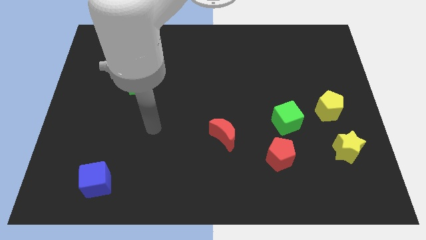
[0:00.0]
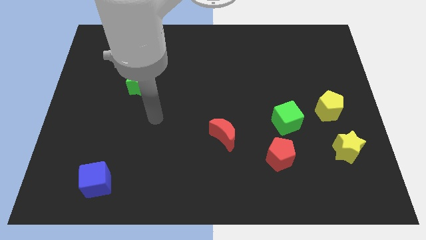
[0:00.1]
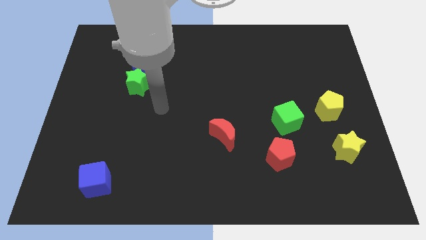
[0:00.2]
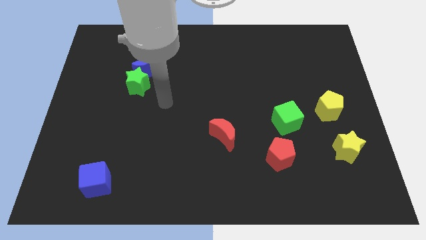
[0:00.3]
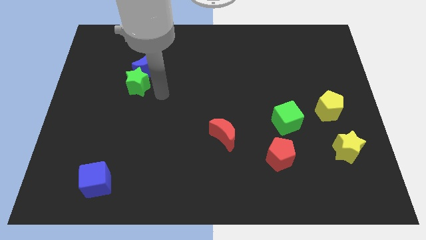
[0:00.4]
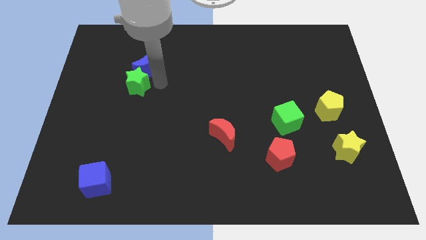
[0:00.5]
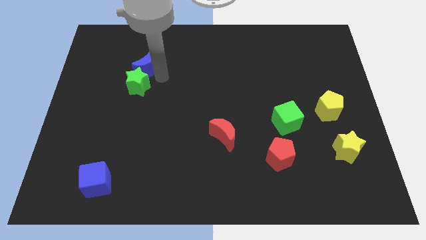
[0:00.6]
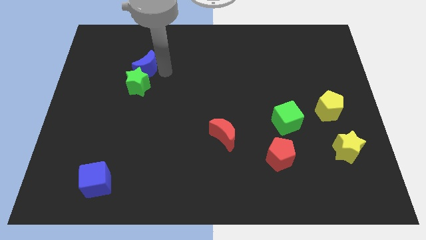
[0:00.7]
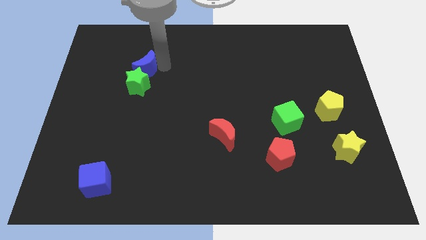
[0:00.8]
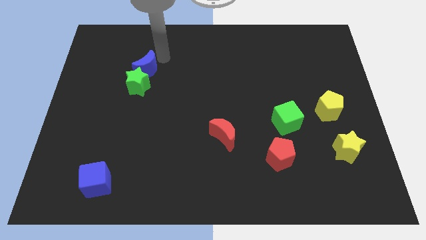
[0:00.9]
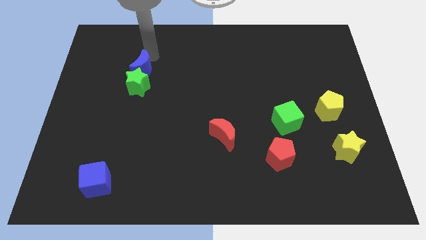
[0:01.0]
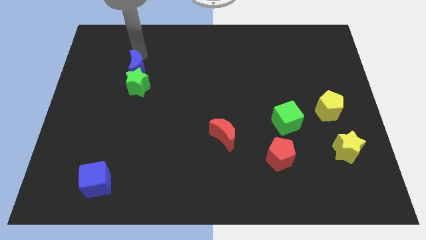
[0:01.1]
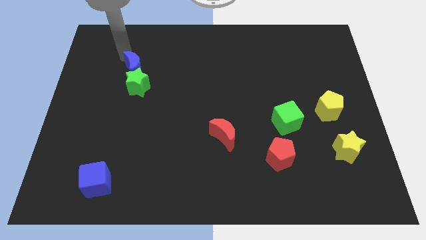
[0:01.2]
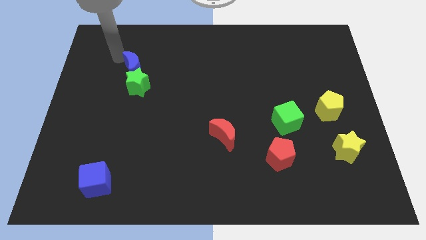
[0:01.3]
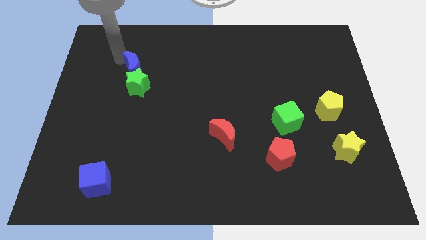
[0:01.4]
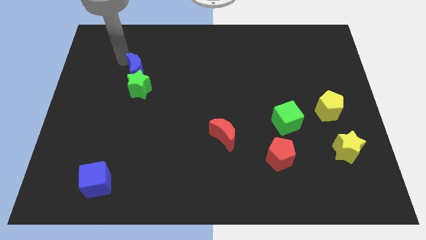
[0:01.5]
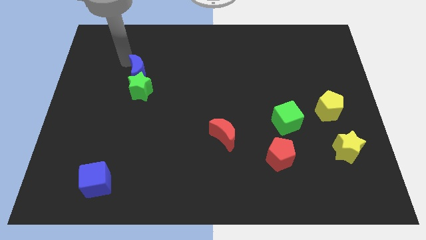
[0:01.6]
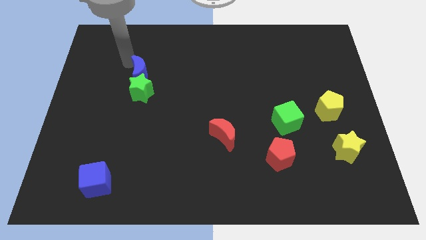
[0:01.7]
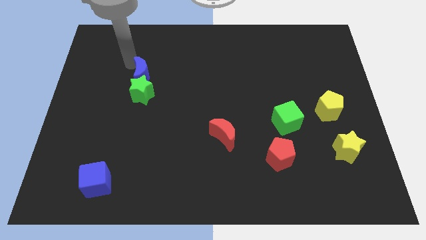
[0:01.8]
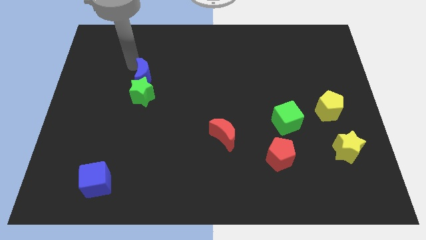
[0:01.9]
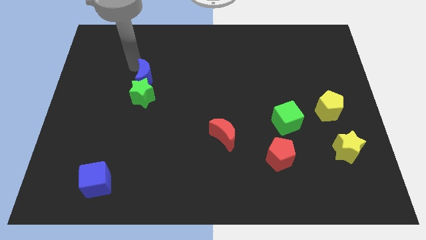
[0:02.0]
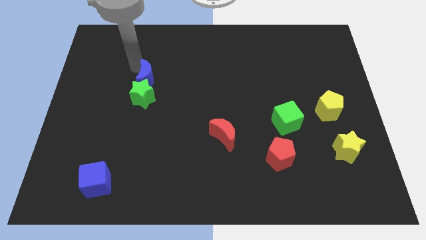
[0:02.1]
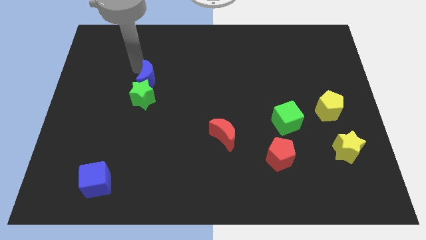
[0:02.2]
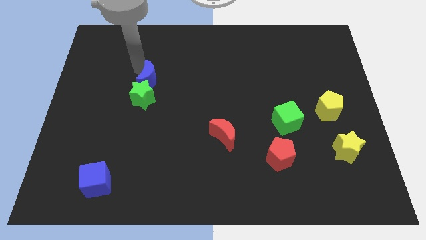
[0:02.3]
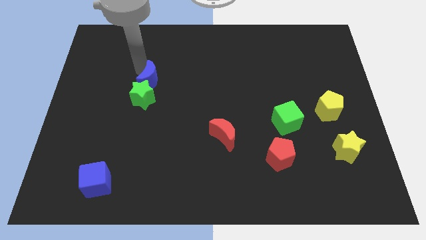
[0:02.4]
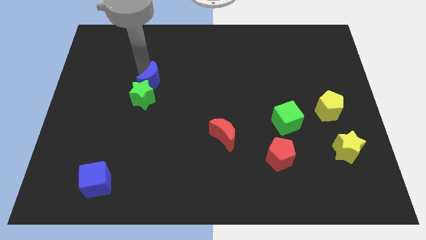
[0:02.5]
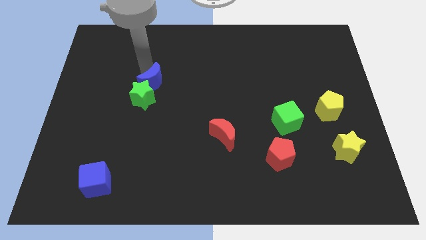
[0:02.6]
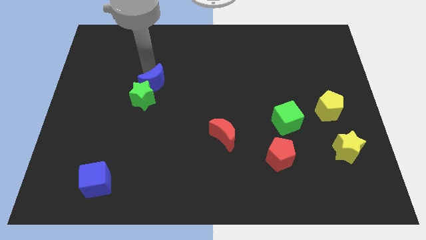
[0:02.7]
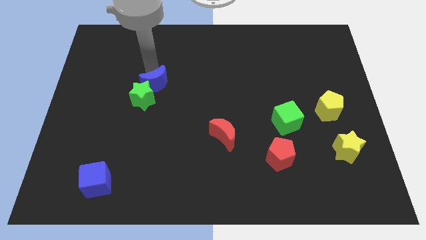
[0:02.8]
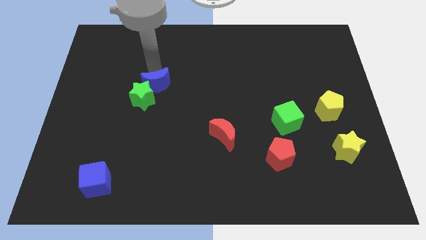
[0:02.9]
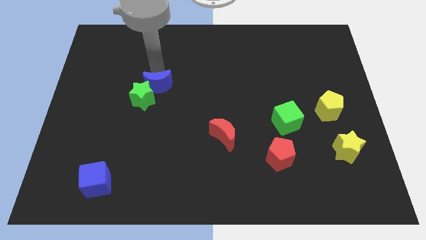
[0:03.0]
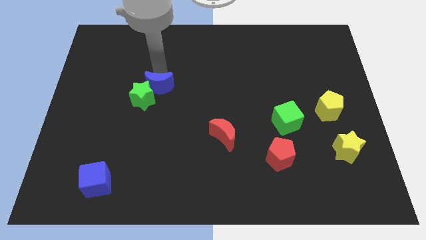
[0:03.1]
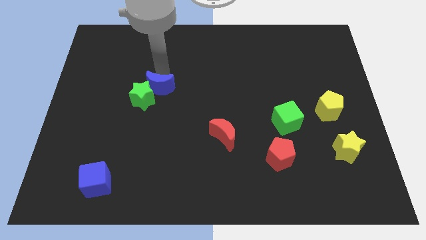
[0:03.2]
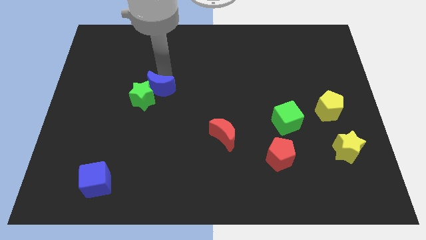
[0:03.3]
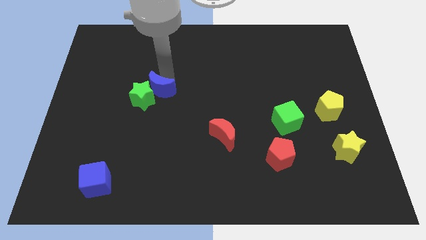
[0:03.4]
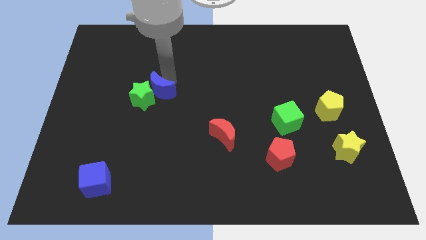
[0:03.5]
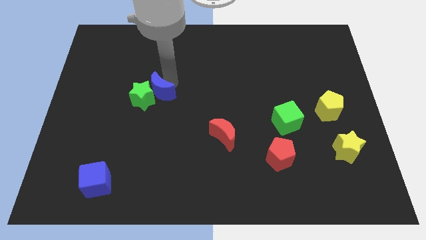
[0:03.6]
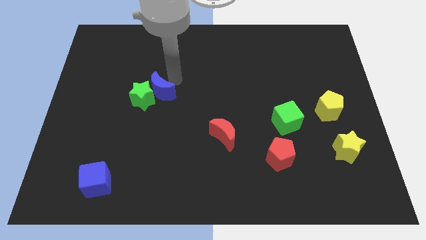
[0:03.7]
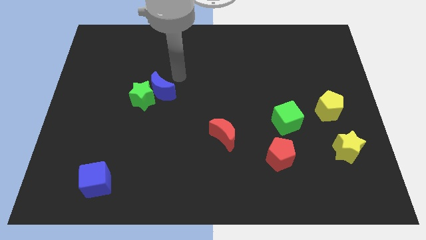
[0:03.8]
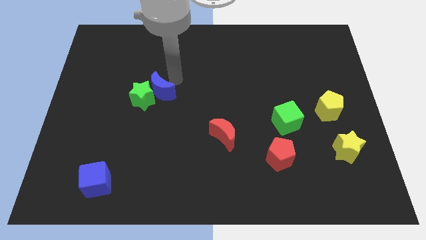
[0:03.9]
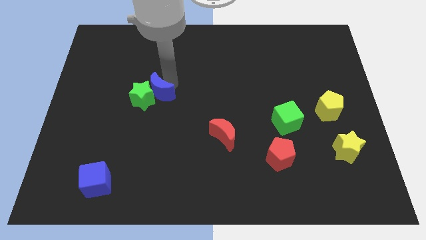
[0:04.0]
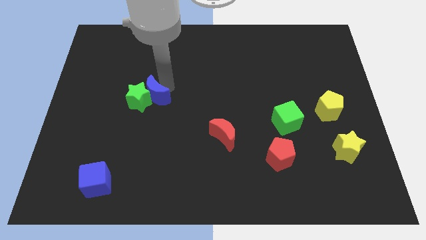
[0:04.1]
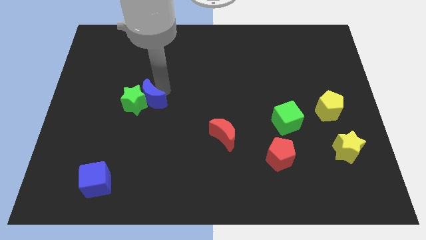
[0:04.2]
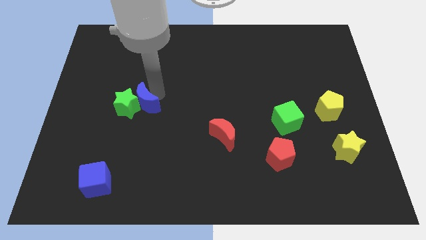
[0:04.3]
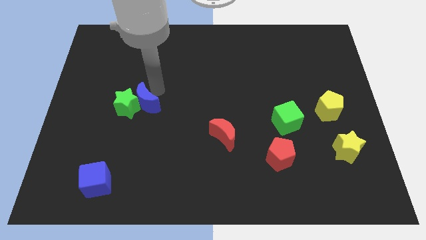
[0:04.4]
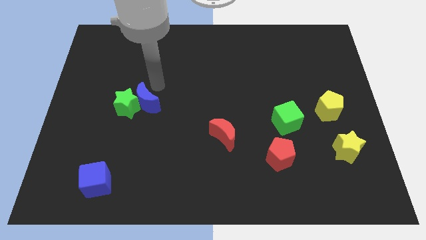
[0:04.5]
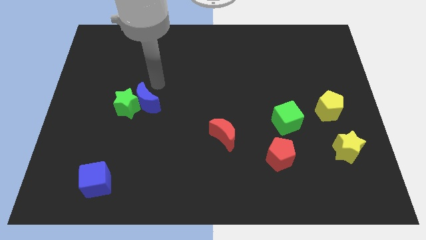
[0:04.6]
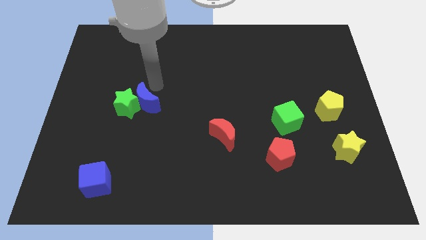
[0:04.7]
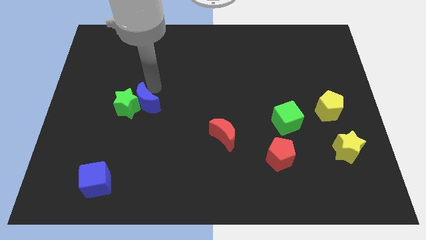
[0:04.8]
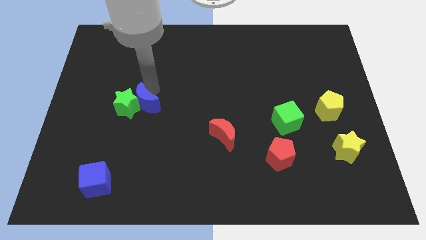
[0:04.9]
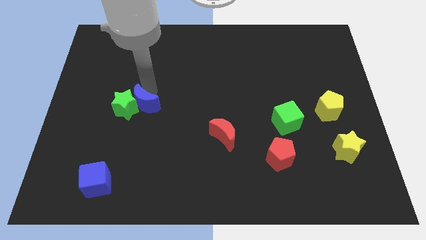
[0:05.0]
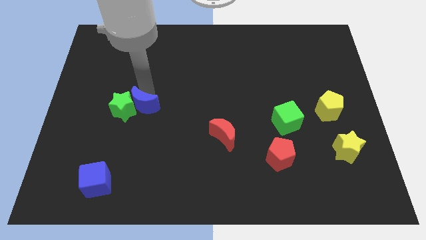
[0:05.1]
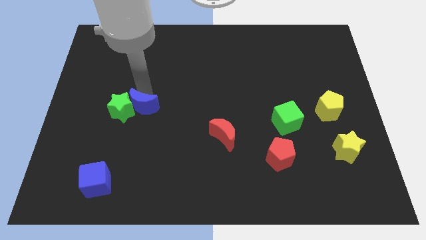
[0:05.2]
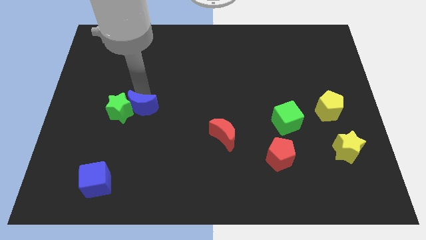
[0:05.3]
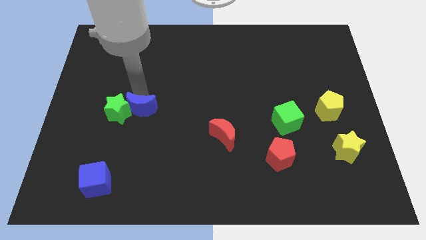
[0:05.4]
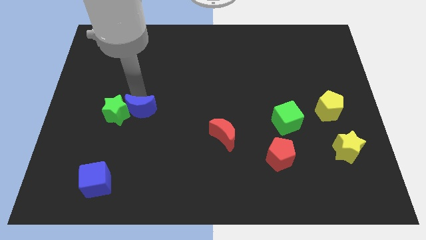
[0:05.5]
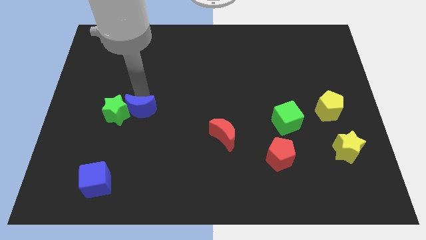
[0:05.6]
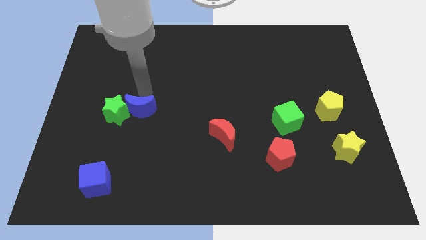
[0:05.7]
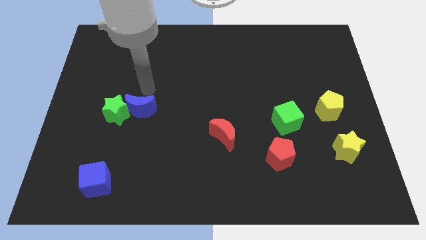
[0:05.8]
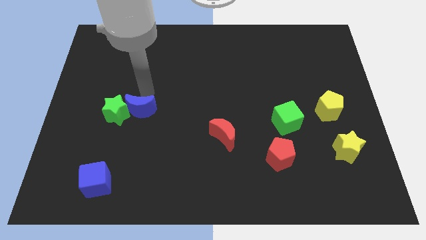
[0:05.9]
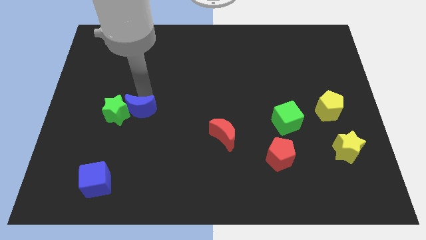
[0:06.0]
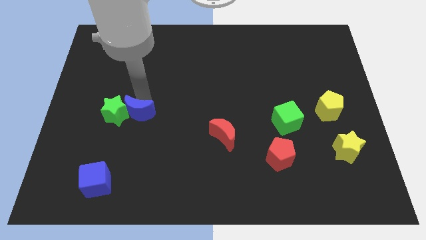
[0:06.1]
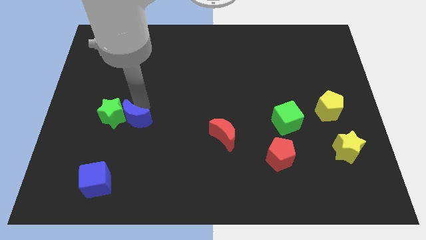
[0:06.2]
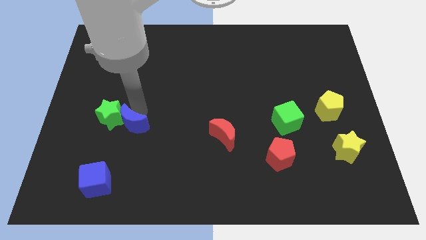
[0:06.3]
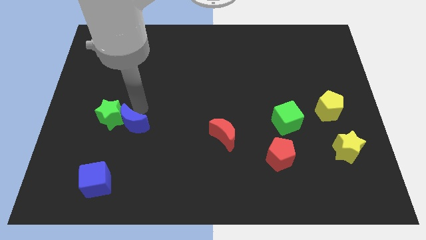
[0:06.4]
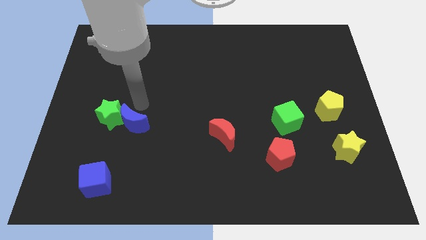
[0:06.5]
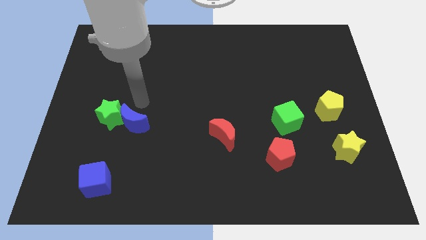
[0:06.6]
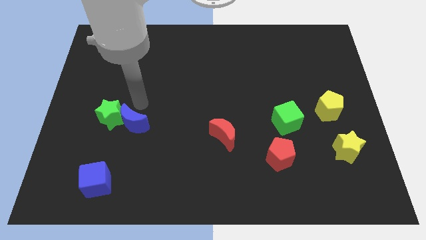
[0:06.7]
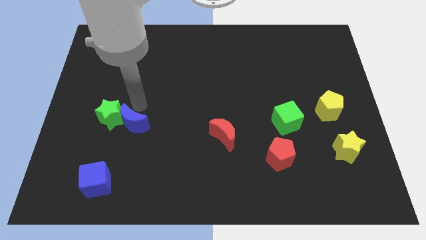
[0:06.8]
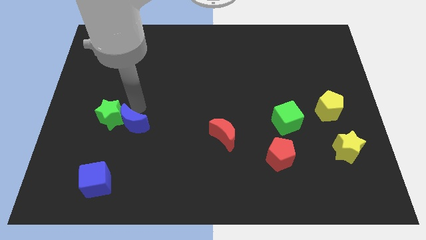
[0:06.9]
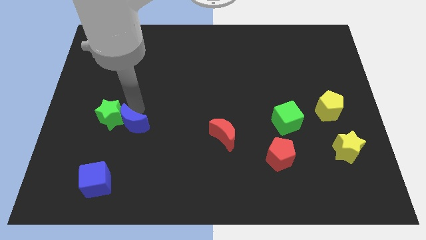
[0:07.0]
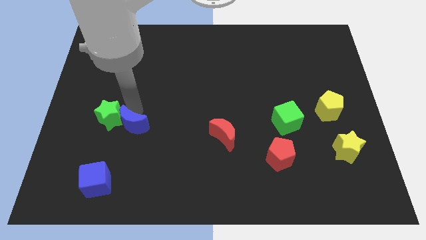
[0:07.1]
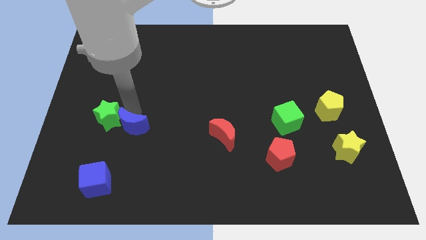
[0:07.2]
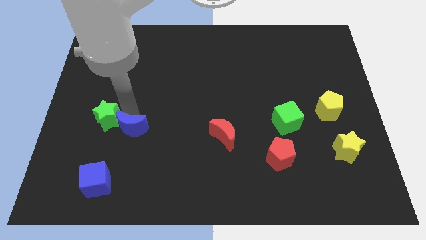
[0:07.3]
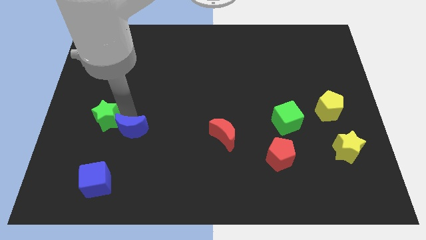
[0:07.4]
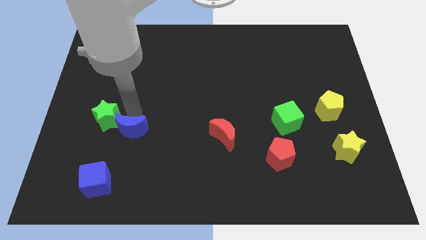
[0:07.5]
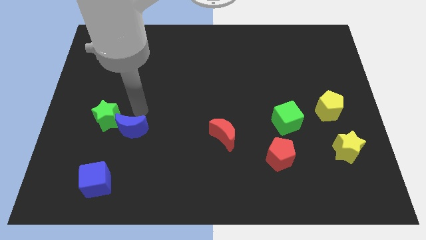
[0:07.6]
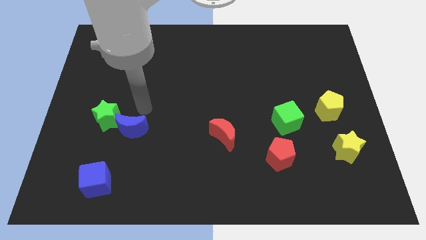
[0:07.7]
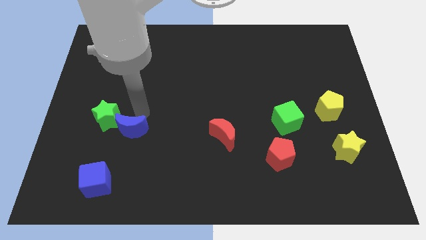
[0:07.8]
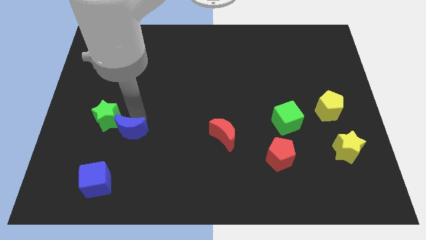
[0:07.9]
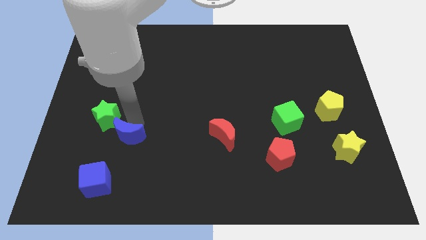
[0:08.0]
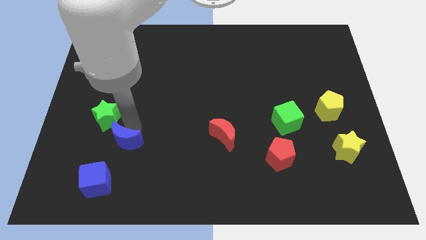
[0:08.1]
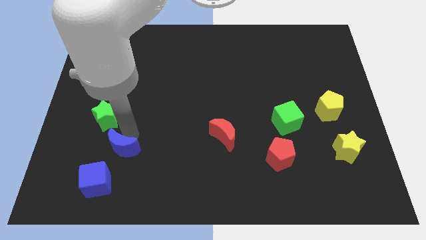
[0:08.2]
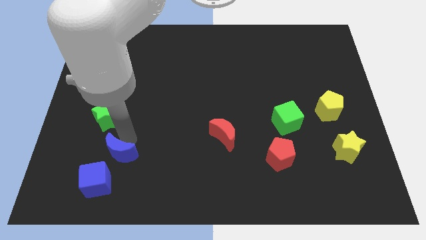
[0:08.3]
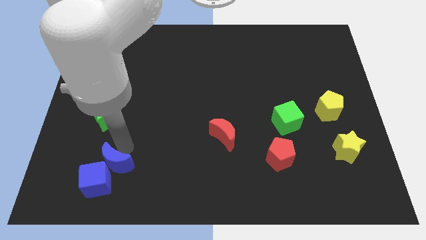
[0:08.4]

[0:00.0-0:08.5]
move the blue moon next to the blue cube
